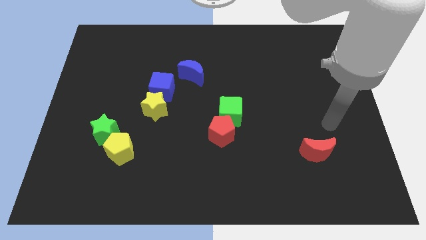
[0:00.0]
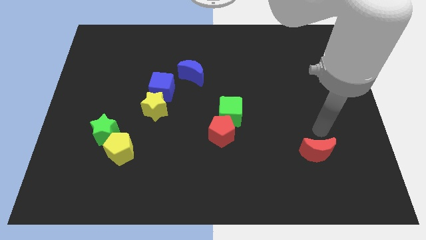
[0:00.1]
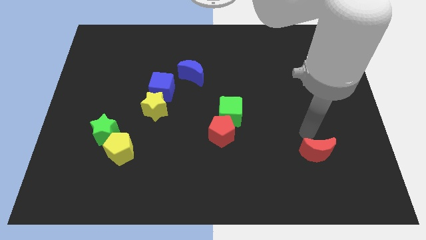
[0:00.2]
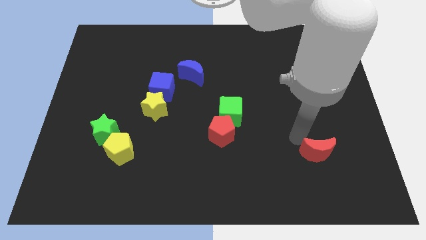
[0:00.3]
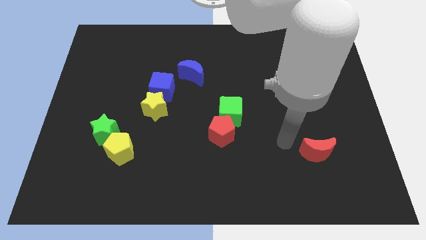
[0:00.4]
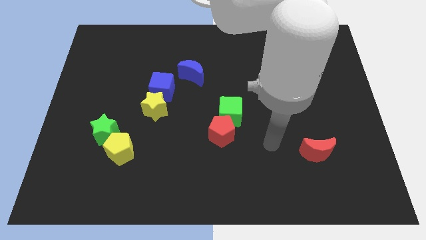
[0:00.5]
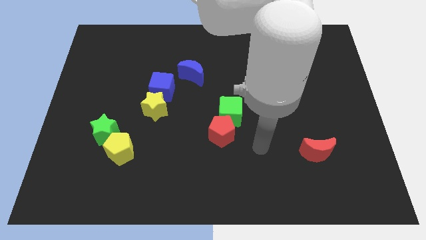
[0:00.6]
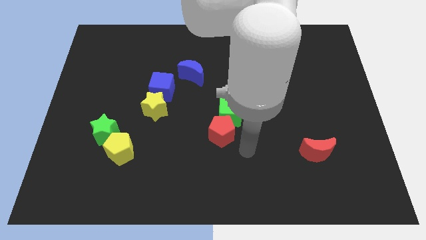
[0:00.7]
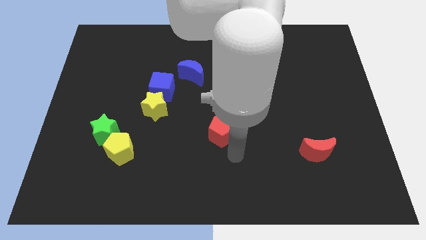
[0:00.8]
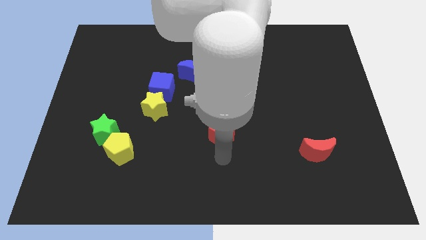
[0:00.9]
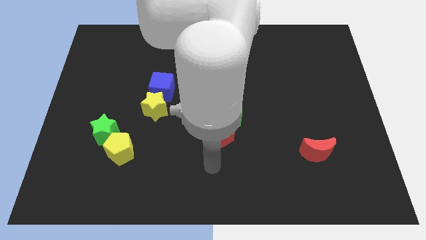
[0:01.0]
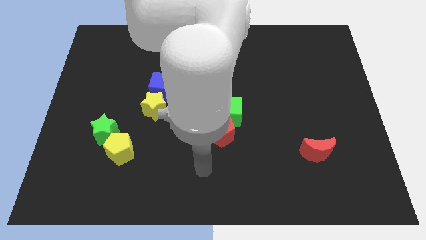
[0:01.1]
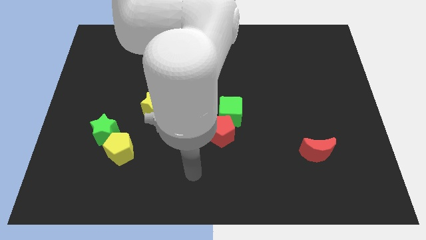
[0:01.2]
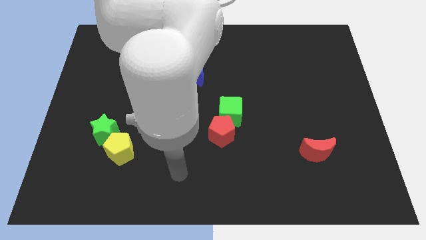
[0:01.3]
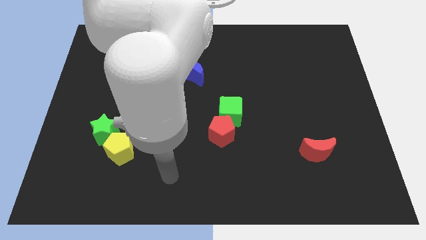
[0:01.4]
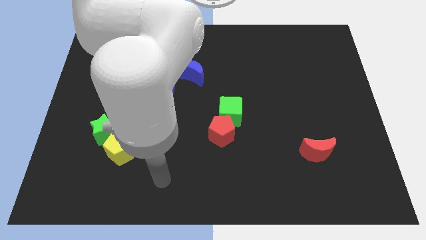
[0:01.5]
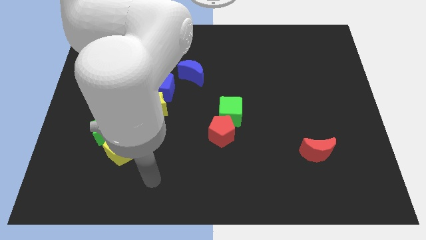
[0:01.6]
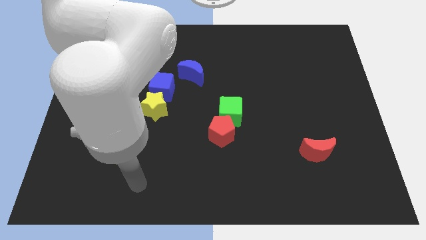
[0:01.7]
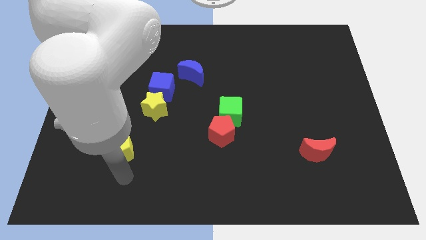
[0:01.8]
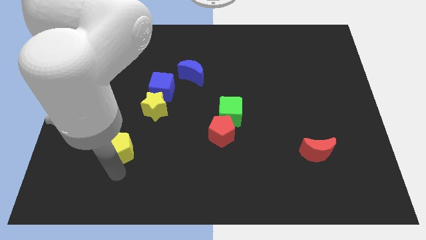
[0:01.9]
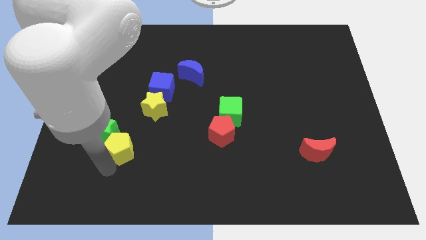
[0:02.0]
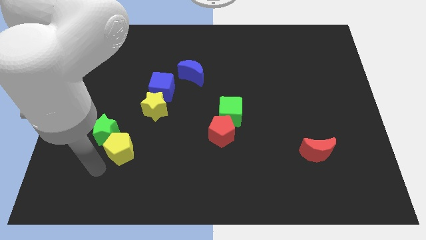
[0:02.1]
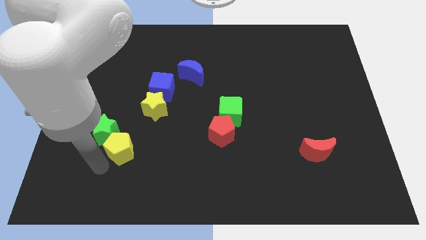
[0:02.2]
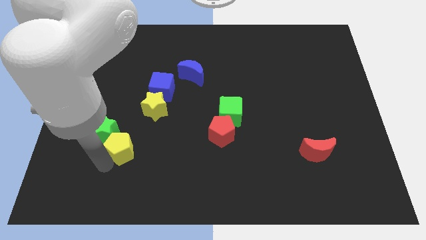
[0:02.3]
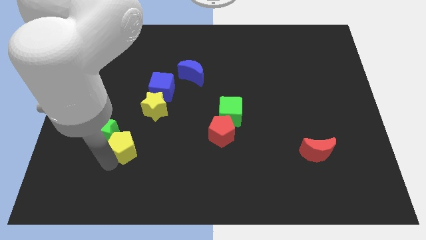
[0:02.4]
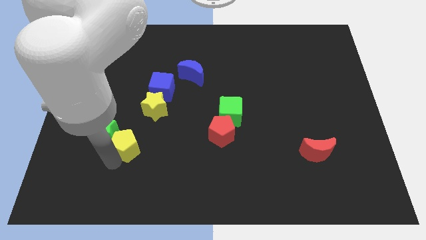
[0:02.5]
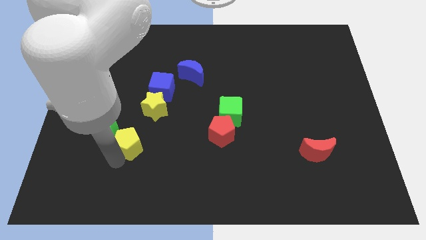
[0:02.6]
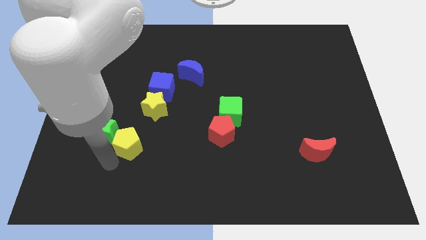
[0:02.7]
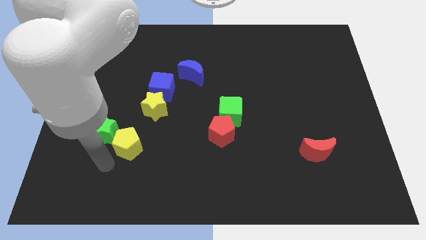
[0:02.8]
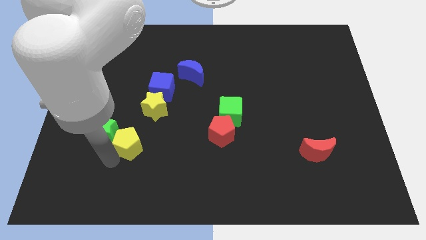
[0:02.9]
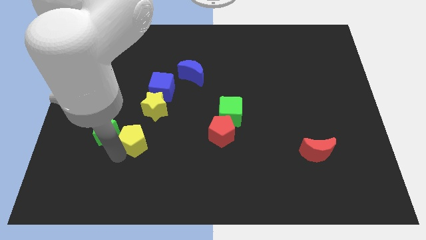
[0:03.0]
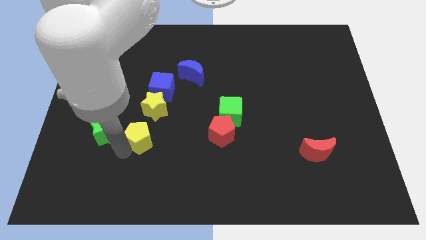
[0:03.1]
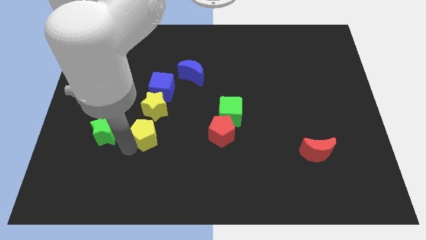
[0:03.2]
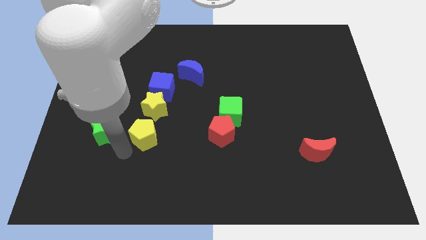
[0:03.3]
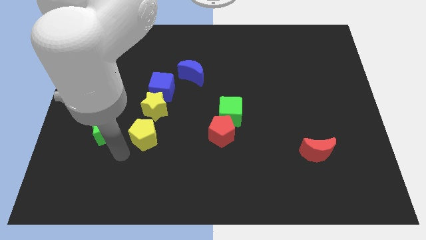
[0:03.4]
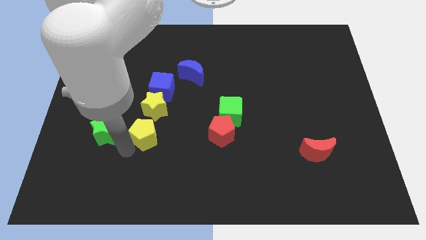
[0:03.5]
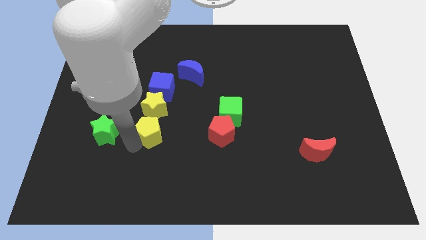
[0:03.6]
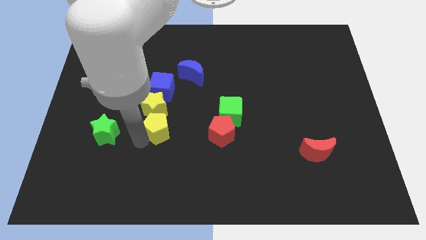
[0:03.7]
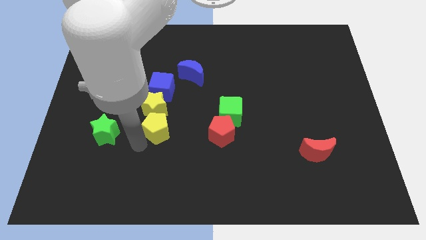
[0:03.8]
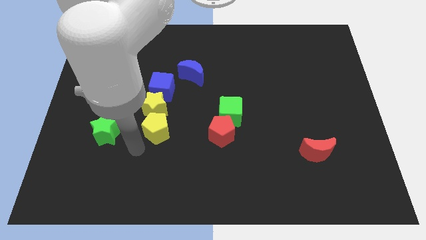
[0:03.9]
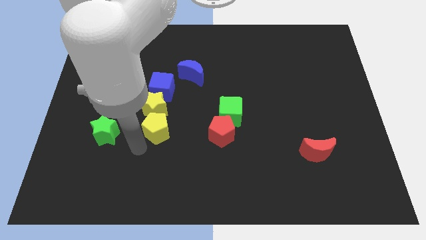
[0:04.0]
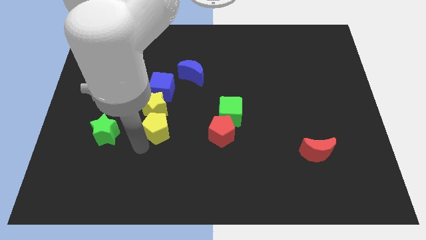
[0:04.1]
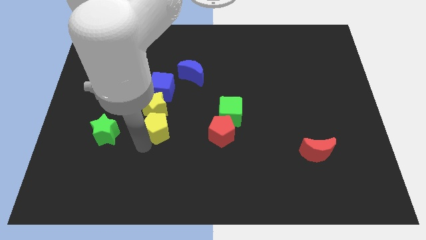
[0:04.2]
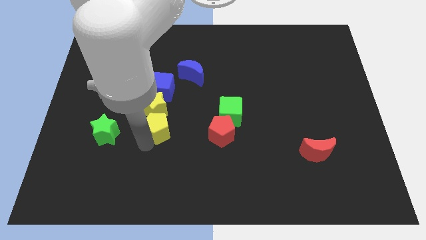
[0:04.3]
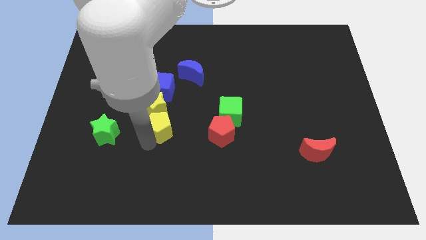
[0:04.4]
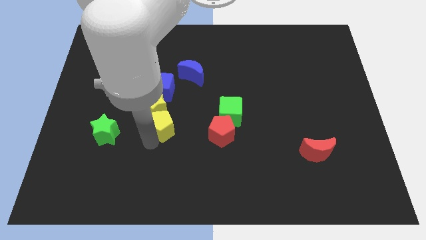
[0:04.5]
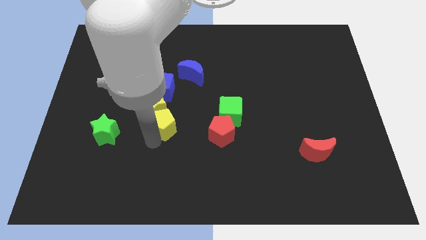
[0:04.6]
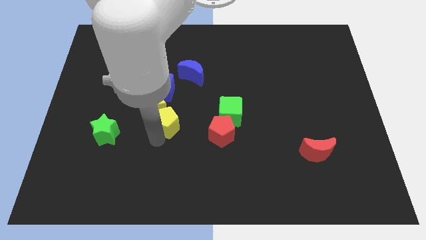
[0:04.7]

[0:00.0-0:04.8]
move the yellow pentagon to the middle of the board

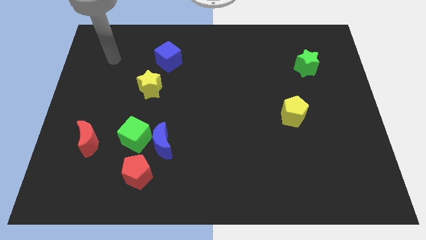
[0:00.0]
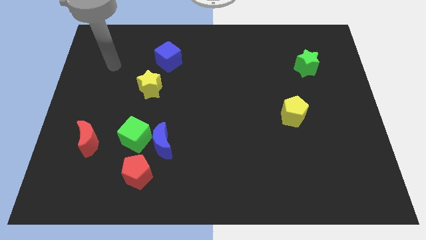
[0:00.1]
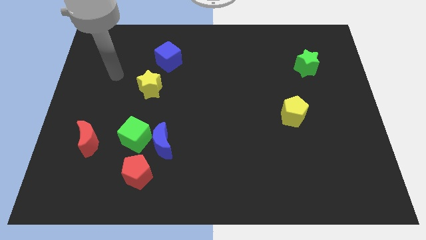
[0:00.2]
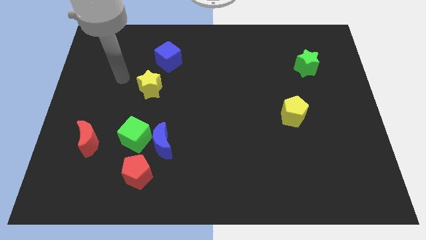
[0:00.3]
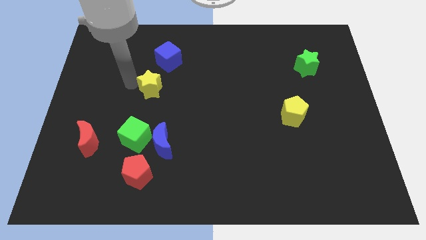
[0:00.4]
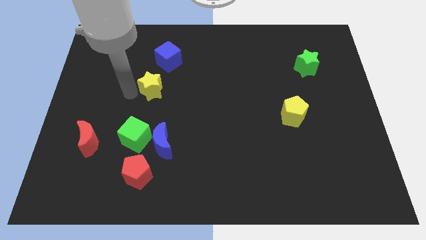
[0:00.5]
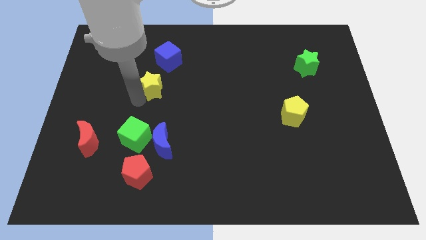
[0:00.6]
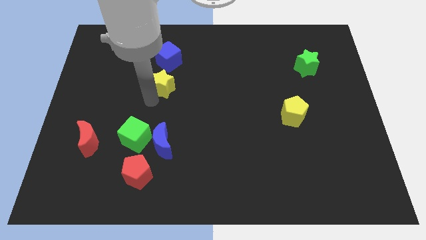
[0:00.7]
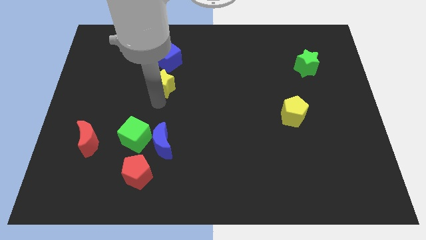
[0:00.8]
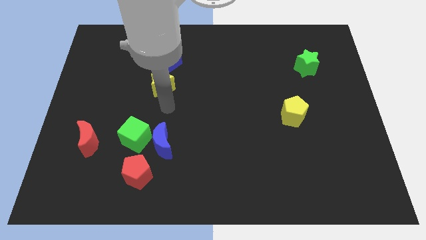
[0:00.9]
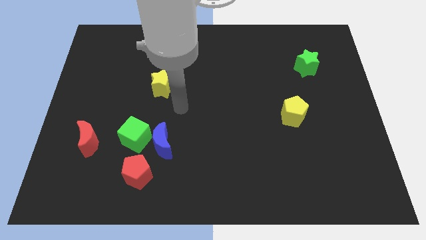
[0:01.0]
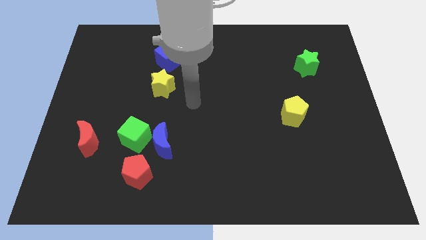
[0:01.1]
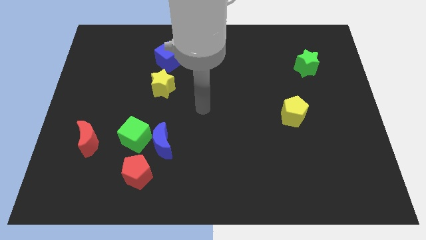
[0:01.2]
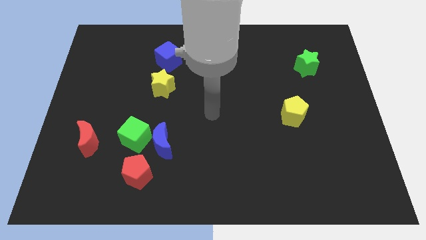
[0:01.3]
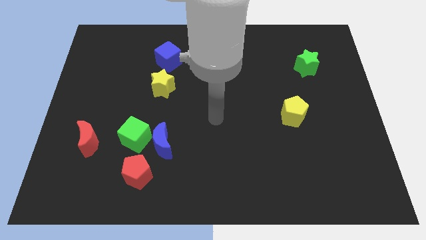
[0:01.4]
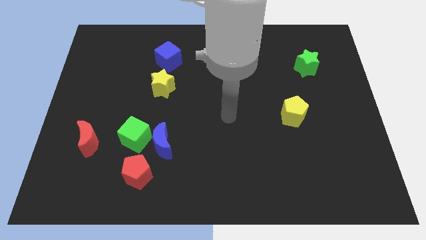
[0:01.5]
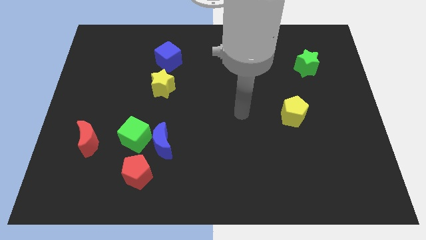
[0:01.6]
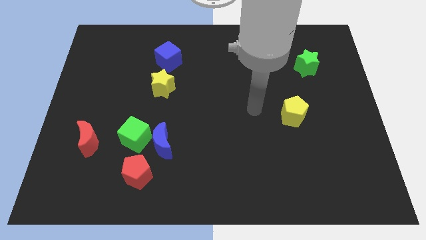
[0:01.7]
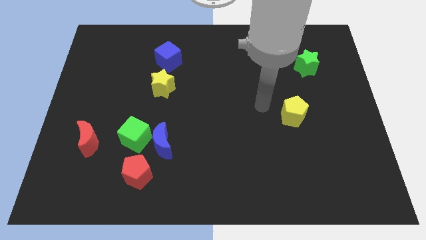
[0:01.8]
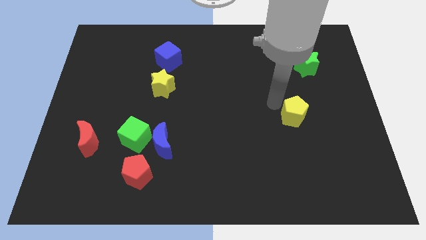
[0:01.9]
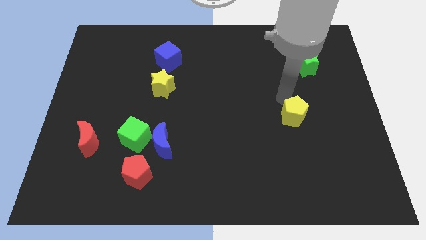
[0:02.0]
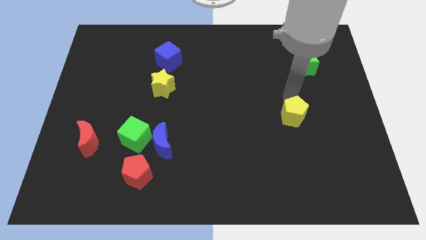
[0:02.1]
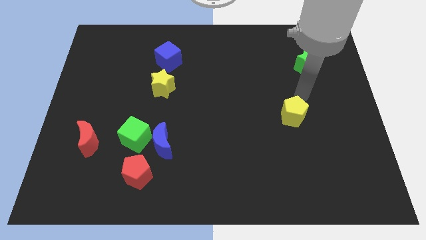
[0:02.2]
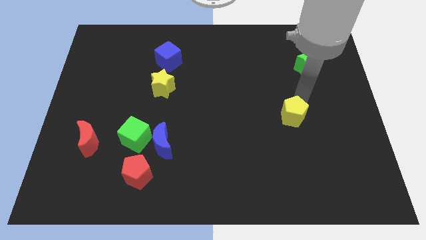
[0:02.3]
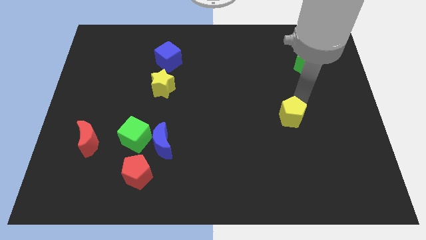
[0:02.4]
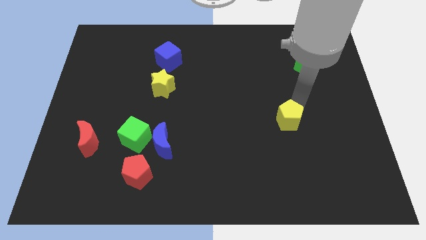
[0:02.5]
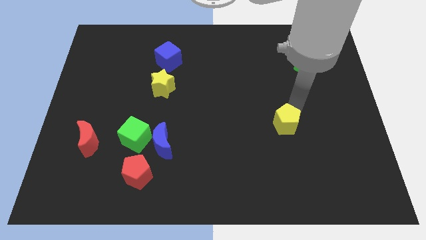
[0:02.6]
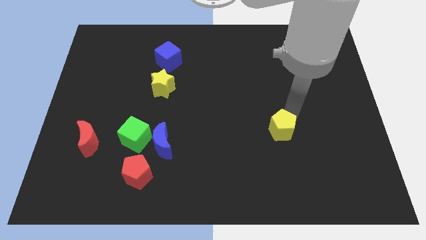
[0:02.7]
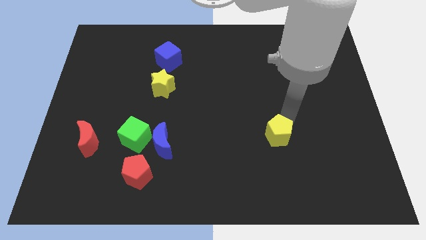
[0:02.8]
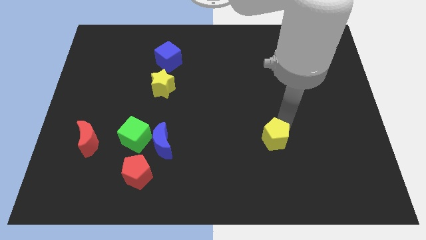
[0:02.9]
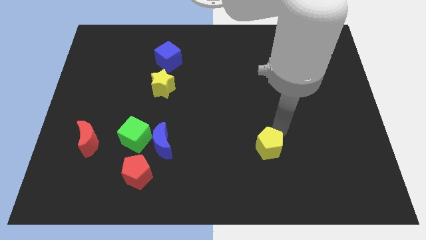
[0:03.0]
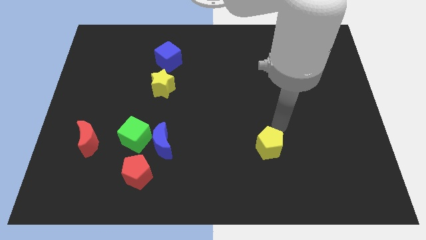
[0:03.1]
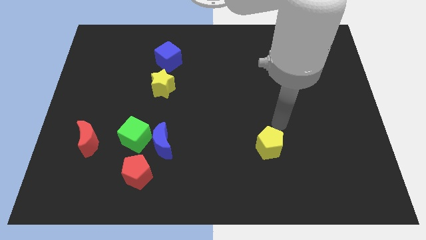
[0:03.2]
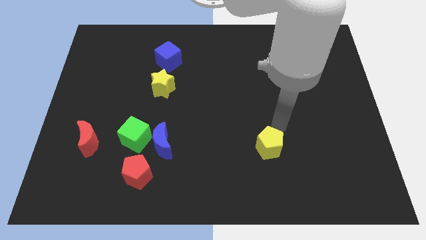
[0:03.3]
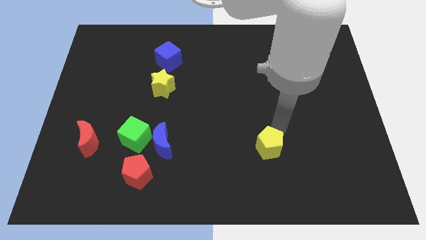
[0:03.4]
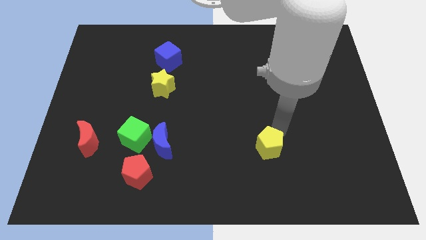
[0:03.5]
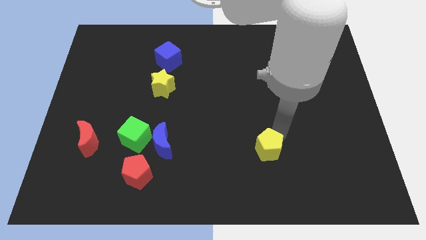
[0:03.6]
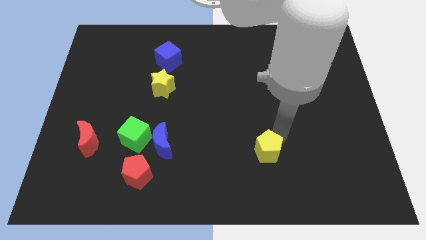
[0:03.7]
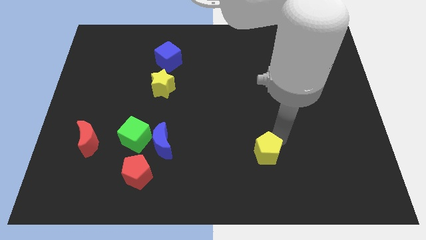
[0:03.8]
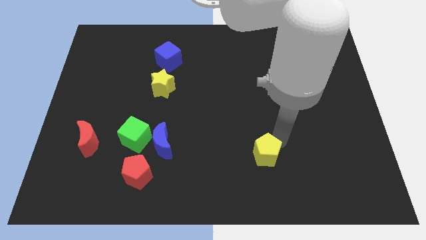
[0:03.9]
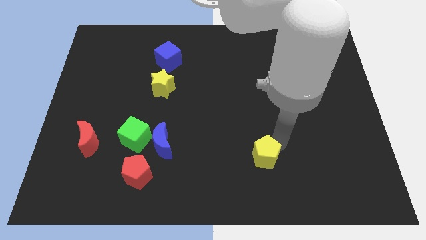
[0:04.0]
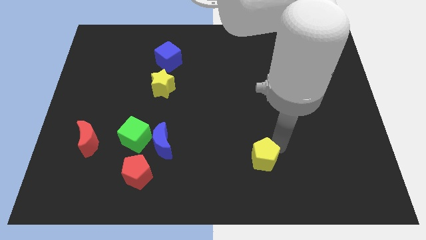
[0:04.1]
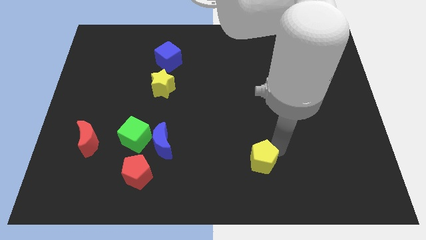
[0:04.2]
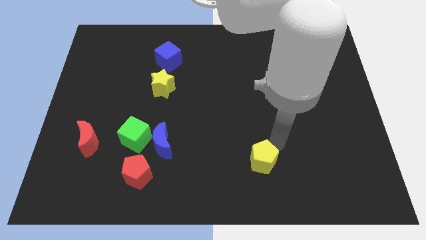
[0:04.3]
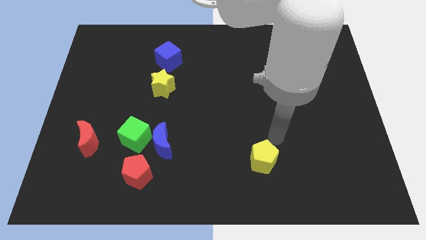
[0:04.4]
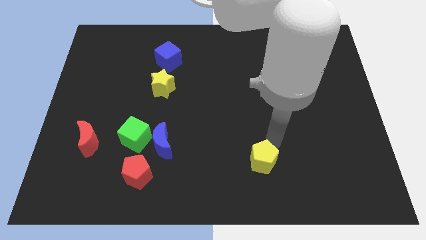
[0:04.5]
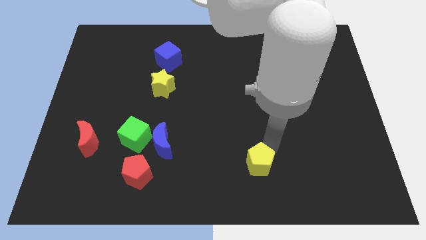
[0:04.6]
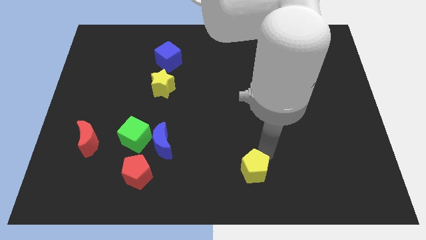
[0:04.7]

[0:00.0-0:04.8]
slide the yellow pentagon to the bottom side
